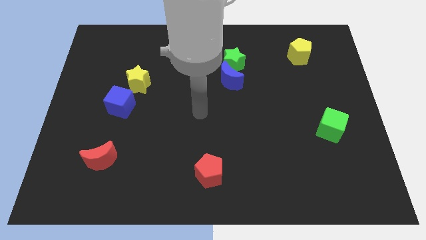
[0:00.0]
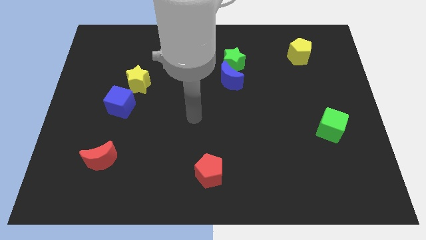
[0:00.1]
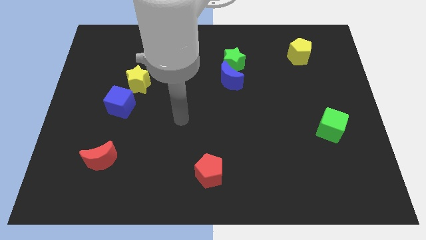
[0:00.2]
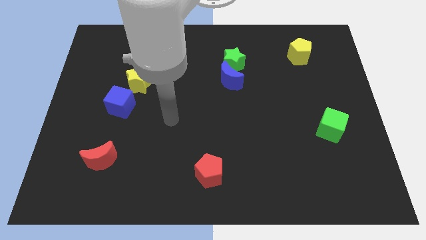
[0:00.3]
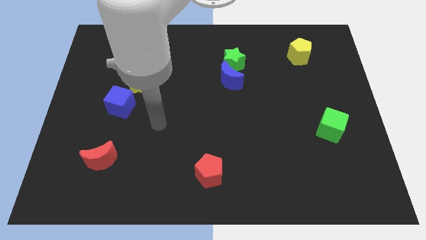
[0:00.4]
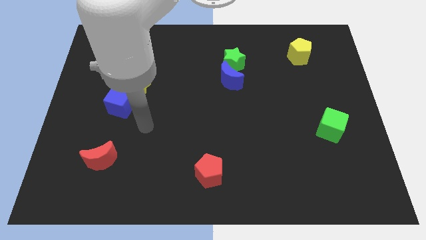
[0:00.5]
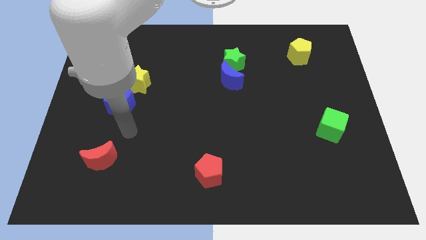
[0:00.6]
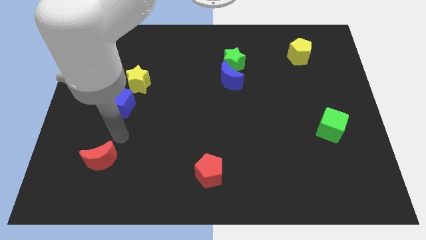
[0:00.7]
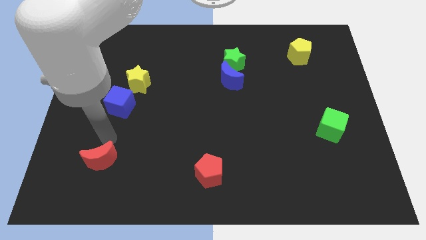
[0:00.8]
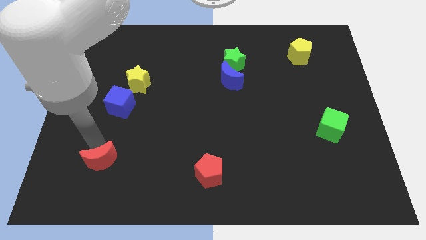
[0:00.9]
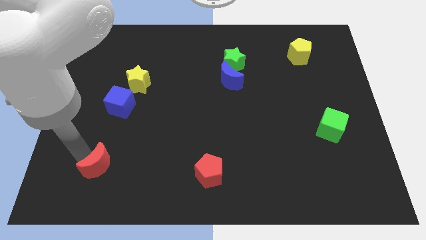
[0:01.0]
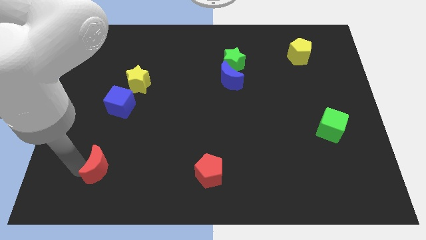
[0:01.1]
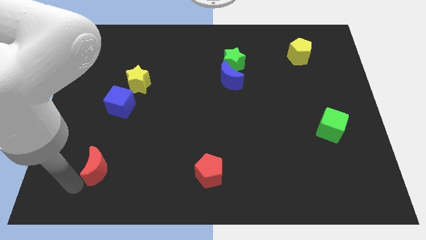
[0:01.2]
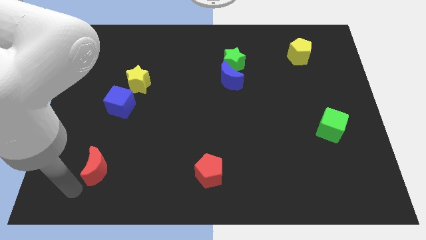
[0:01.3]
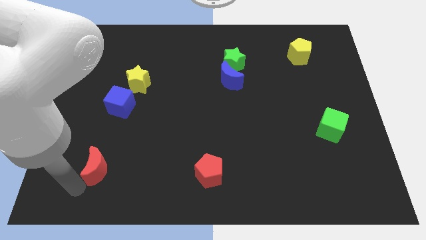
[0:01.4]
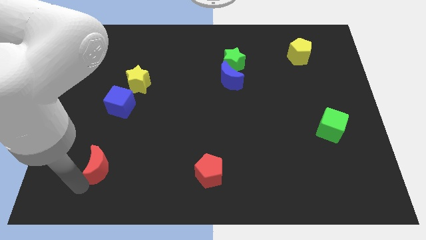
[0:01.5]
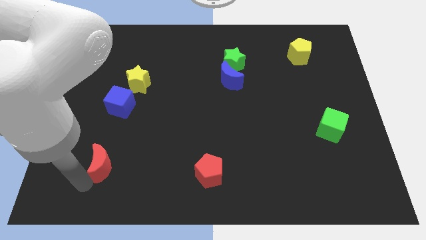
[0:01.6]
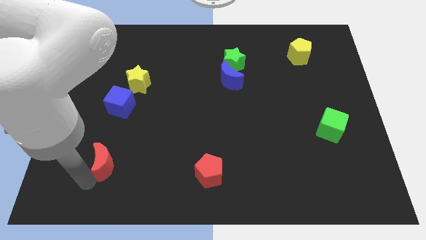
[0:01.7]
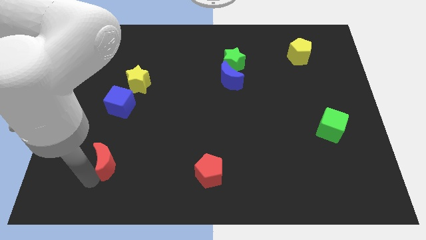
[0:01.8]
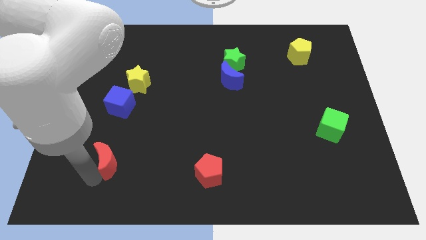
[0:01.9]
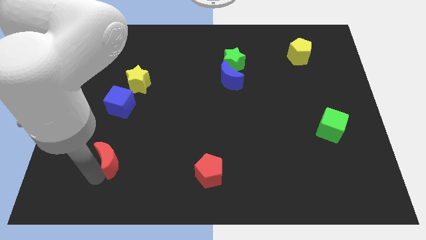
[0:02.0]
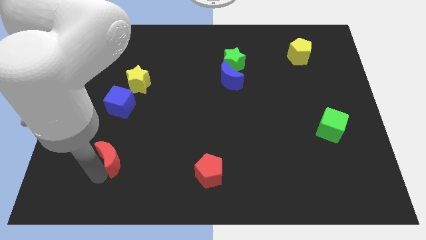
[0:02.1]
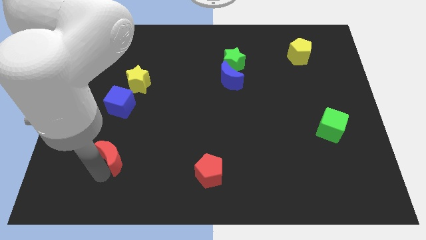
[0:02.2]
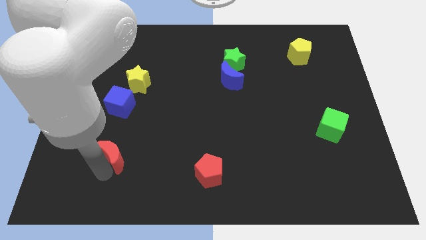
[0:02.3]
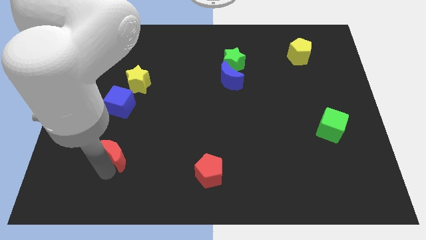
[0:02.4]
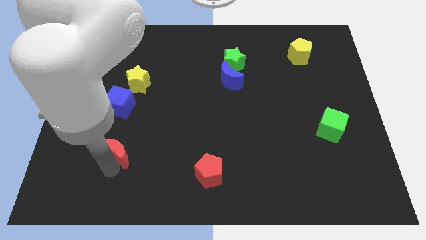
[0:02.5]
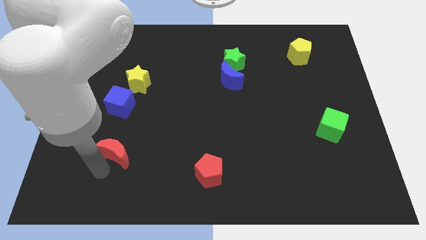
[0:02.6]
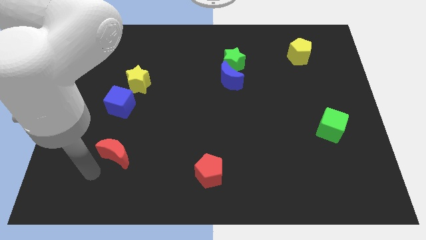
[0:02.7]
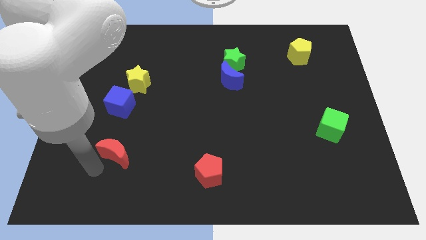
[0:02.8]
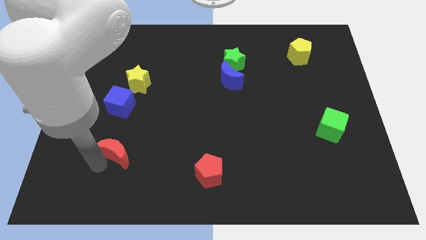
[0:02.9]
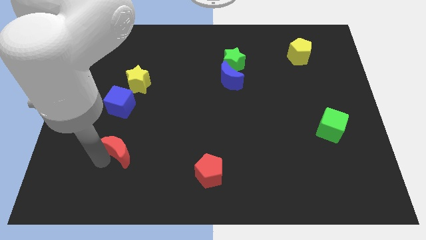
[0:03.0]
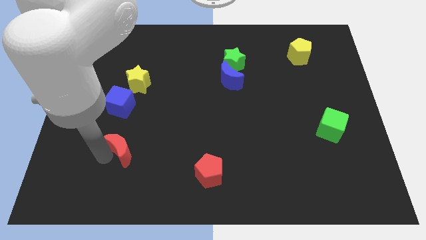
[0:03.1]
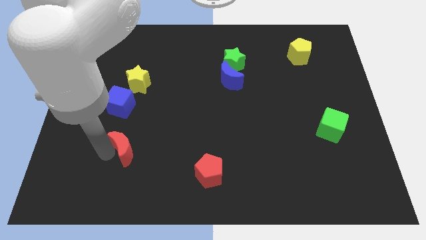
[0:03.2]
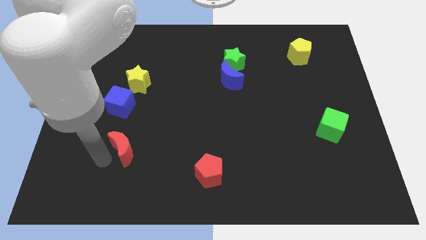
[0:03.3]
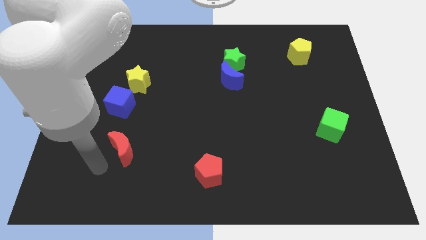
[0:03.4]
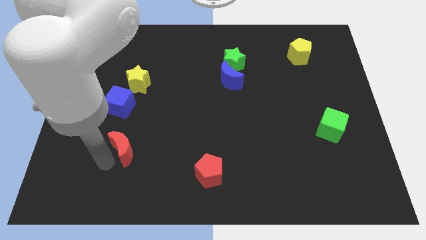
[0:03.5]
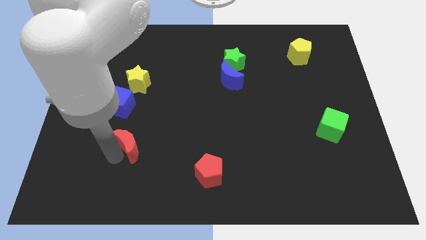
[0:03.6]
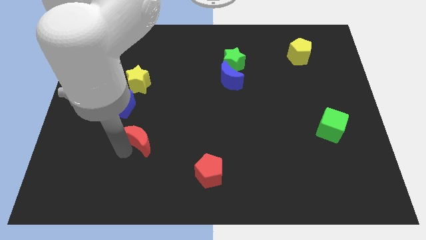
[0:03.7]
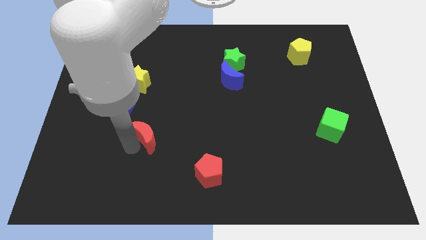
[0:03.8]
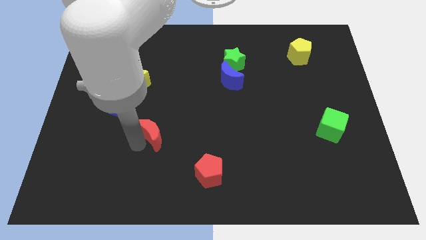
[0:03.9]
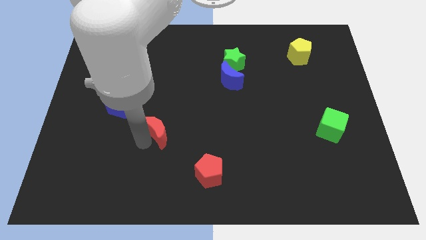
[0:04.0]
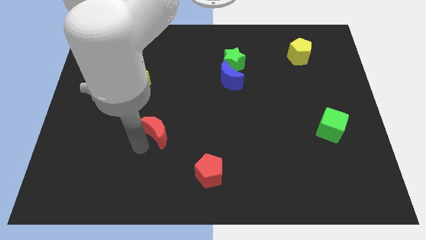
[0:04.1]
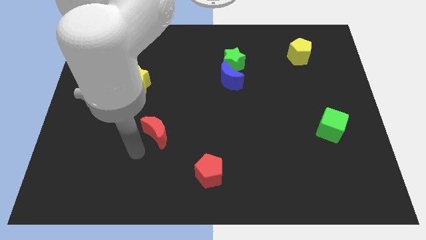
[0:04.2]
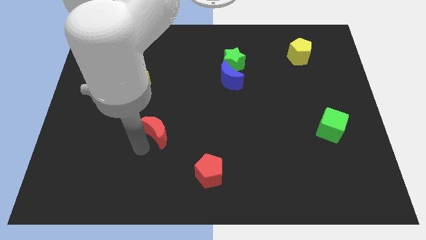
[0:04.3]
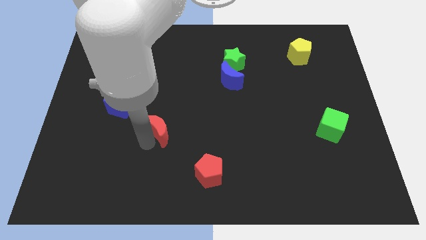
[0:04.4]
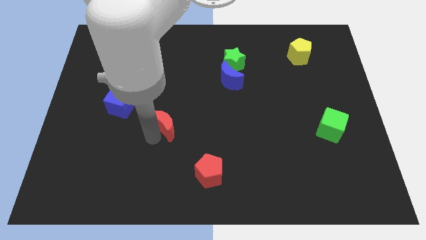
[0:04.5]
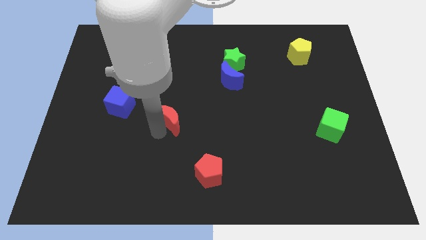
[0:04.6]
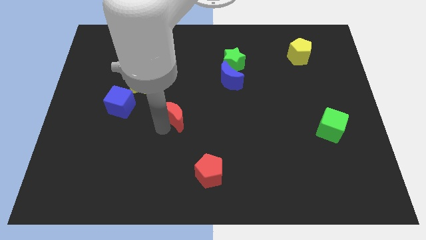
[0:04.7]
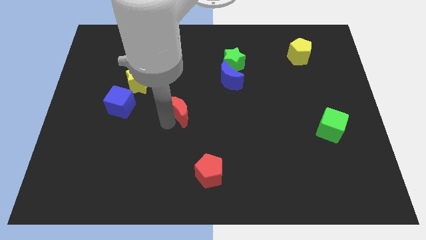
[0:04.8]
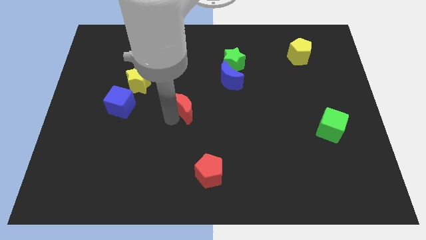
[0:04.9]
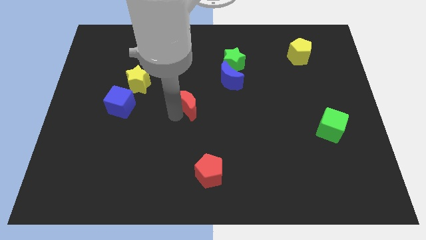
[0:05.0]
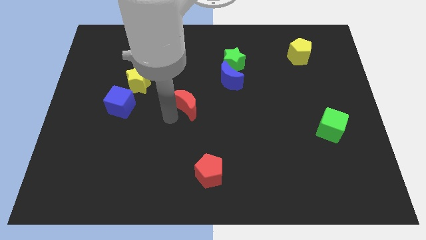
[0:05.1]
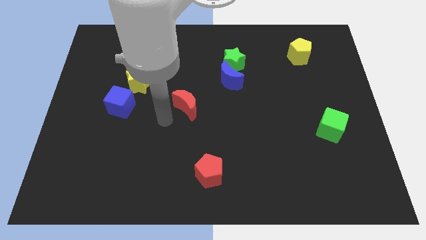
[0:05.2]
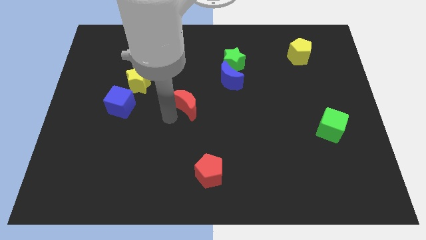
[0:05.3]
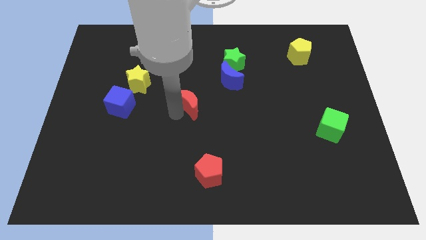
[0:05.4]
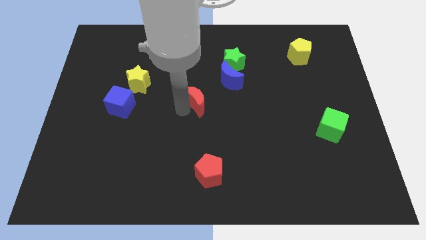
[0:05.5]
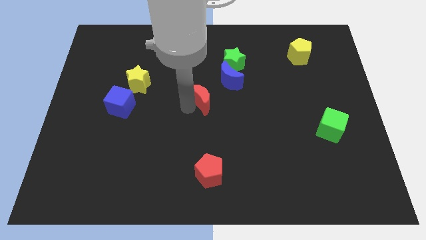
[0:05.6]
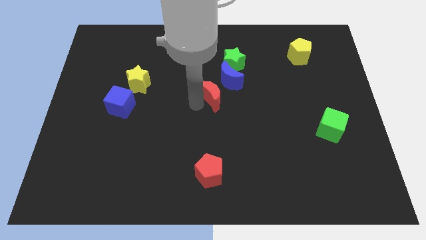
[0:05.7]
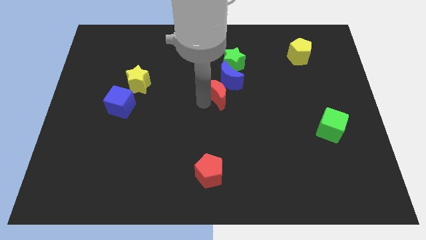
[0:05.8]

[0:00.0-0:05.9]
move the red moon next to the blue moon

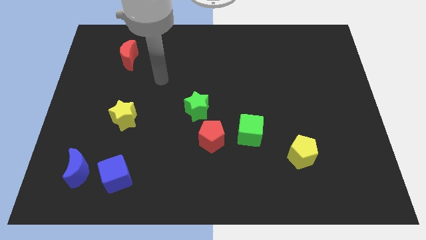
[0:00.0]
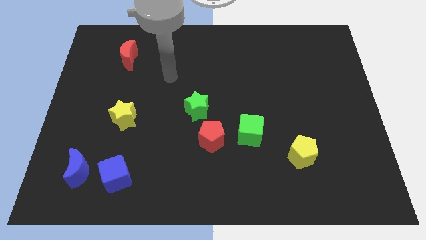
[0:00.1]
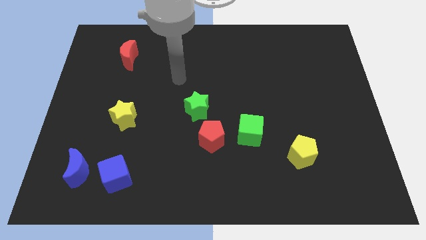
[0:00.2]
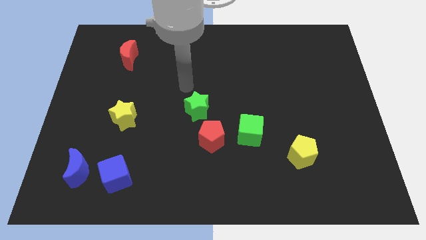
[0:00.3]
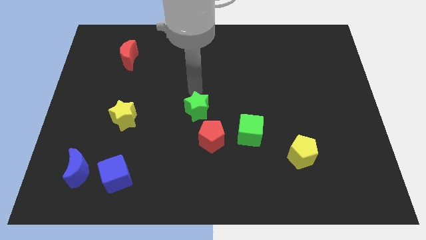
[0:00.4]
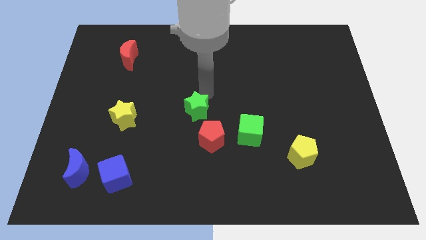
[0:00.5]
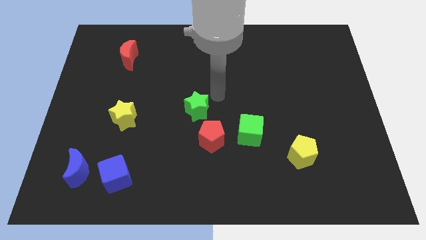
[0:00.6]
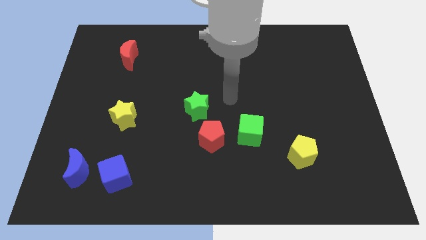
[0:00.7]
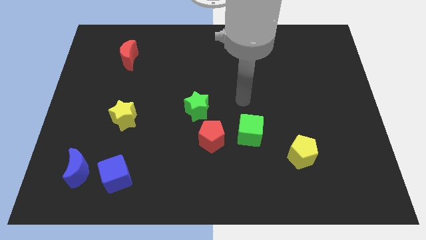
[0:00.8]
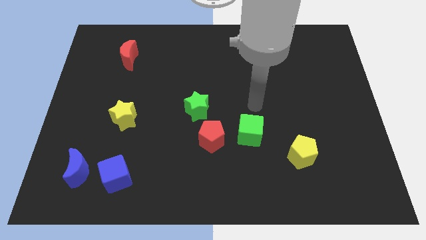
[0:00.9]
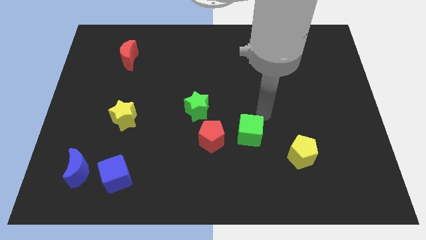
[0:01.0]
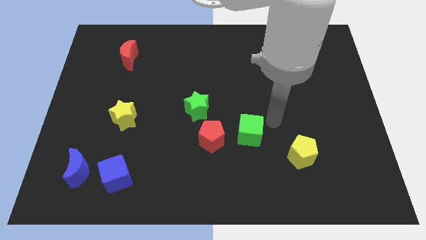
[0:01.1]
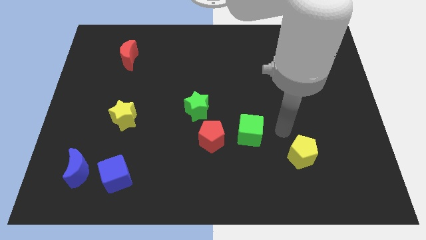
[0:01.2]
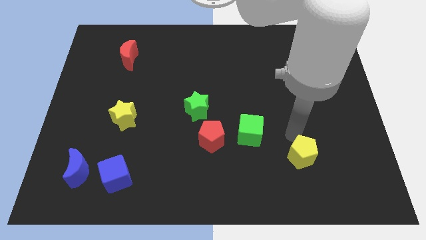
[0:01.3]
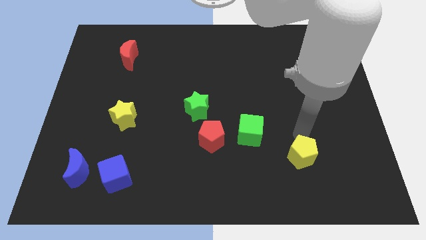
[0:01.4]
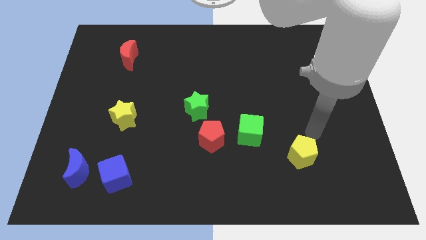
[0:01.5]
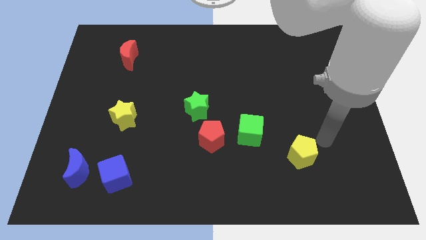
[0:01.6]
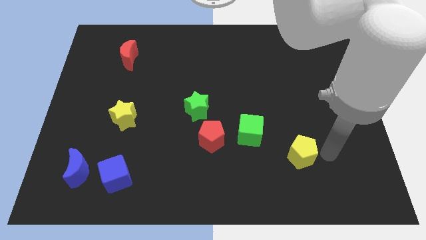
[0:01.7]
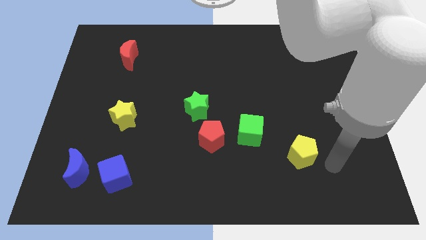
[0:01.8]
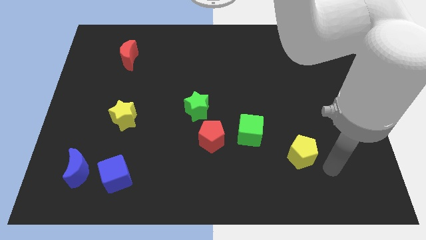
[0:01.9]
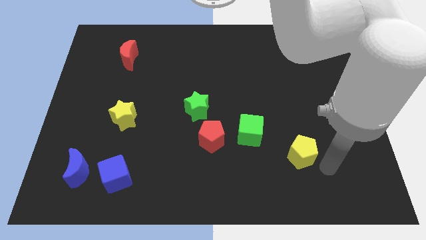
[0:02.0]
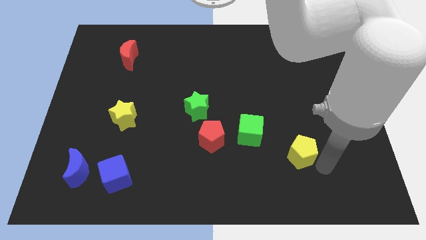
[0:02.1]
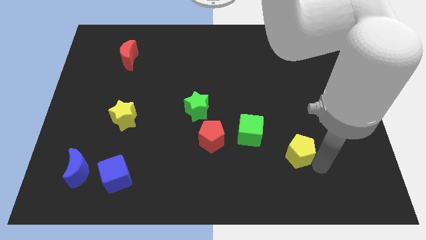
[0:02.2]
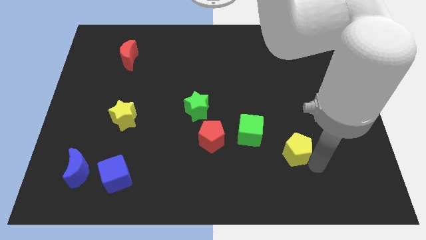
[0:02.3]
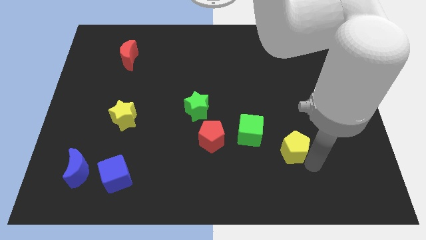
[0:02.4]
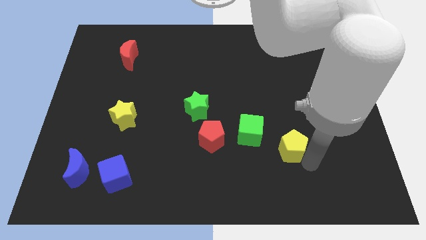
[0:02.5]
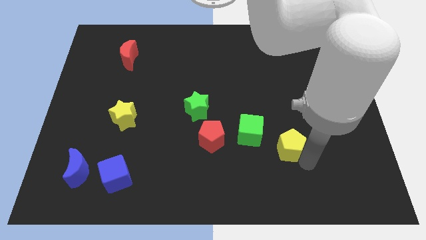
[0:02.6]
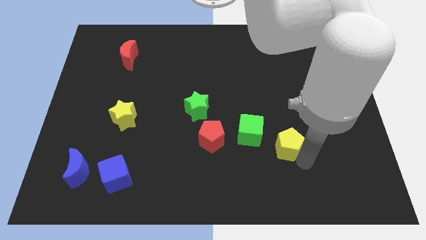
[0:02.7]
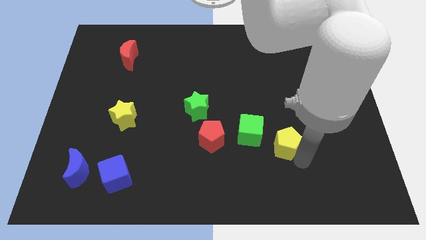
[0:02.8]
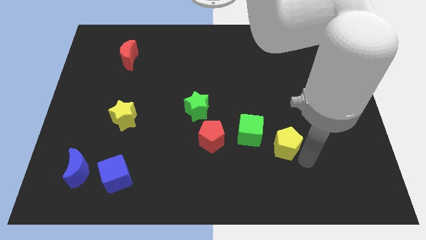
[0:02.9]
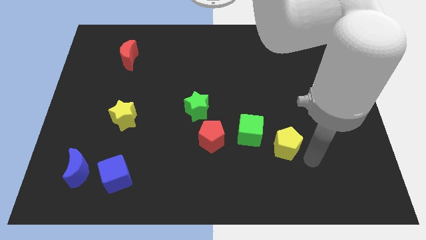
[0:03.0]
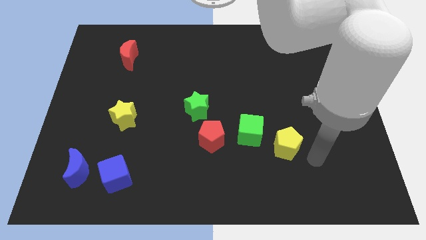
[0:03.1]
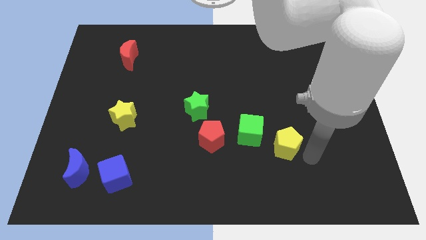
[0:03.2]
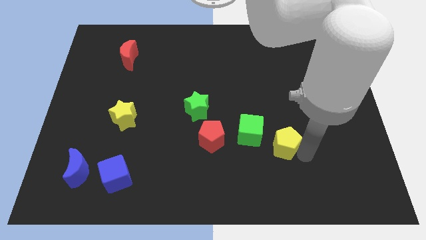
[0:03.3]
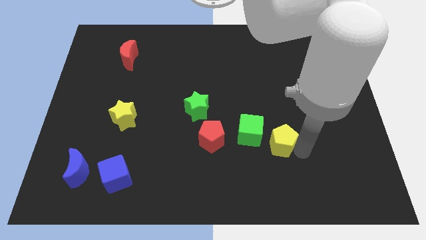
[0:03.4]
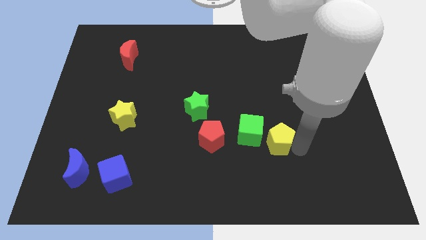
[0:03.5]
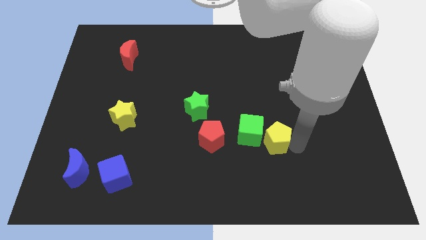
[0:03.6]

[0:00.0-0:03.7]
slide the yellow pentagon next to the green cube
